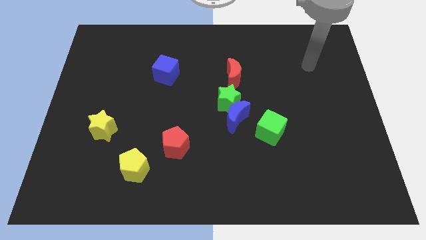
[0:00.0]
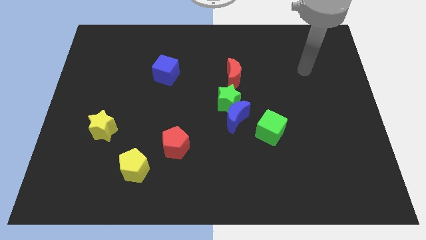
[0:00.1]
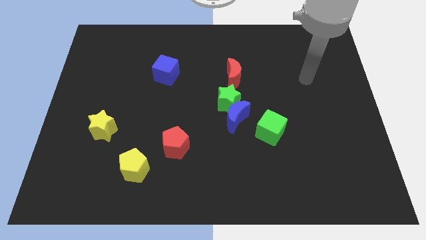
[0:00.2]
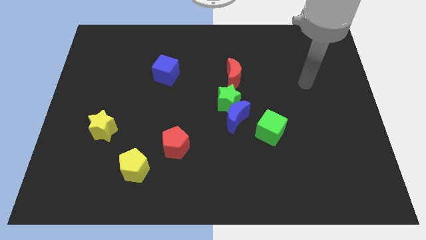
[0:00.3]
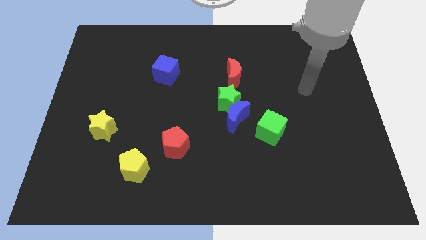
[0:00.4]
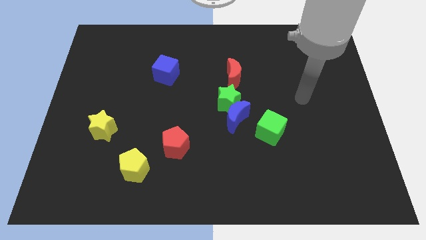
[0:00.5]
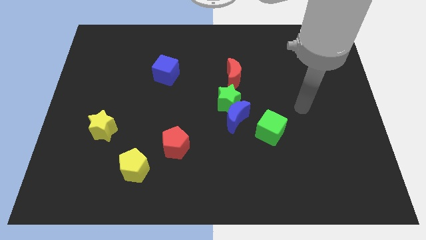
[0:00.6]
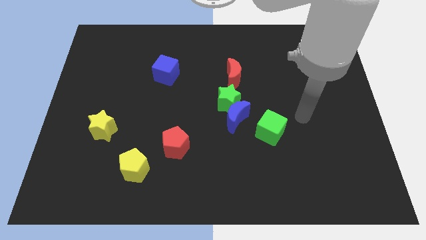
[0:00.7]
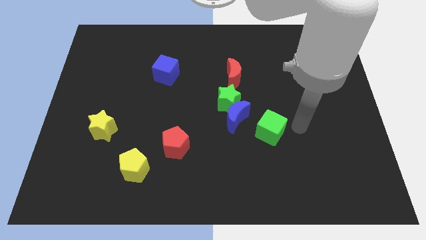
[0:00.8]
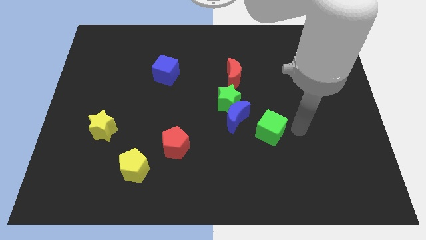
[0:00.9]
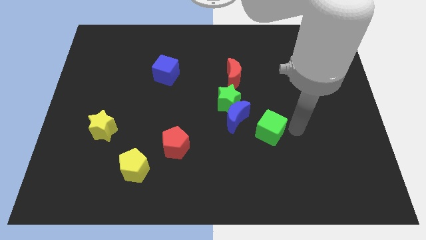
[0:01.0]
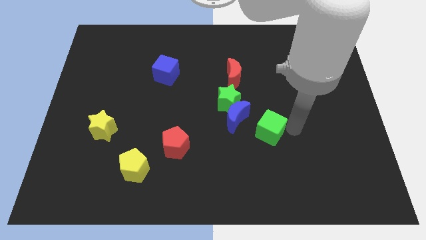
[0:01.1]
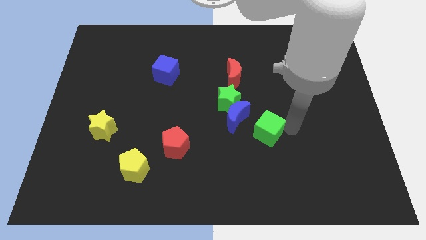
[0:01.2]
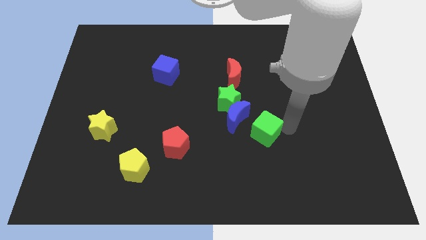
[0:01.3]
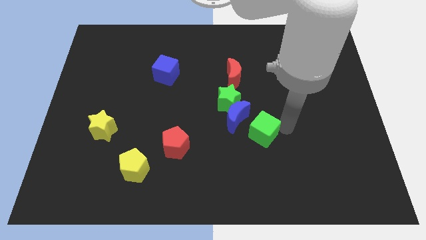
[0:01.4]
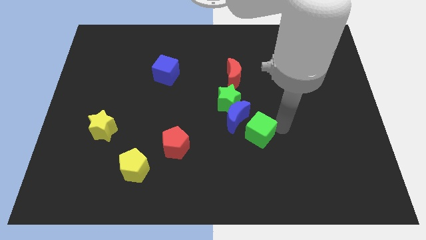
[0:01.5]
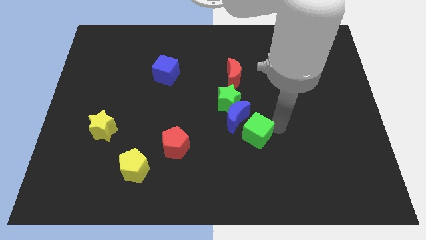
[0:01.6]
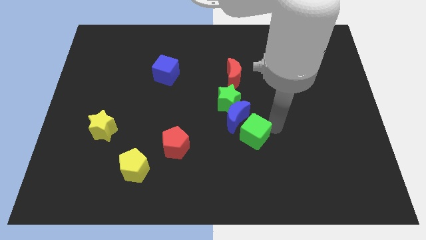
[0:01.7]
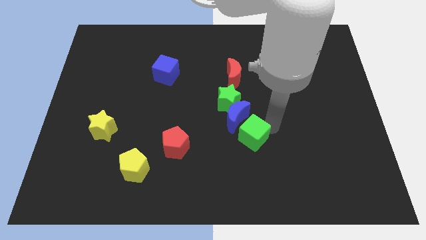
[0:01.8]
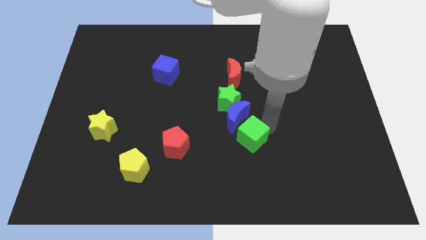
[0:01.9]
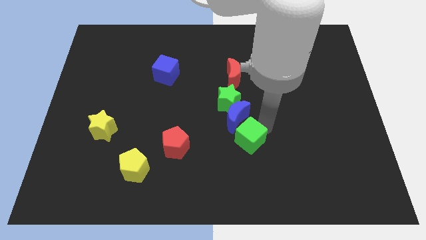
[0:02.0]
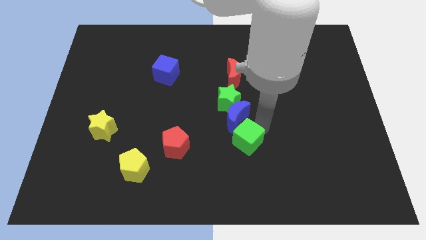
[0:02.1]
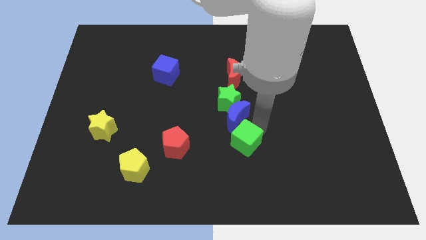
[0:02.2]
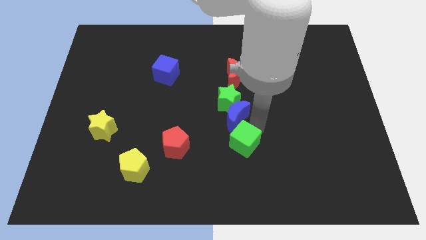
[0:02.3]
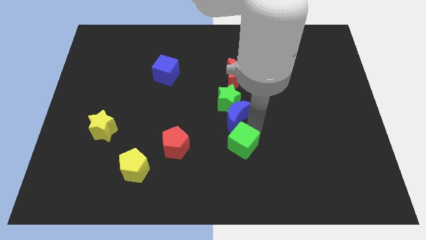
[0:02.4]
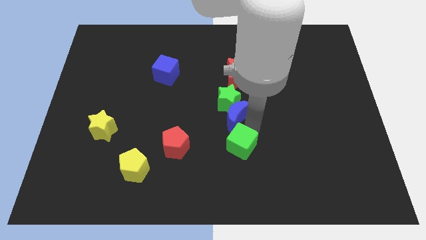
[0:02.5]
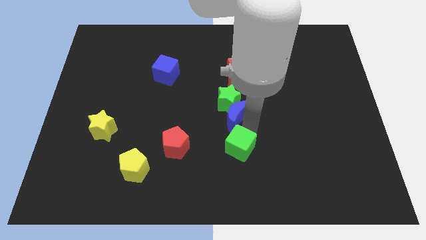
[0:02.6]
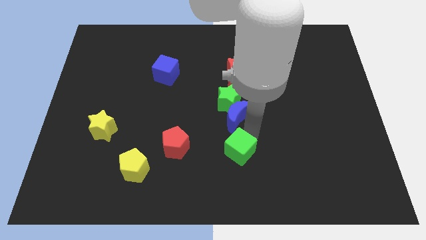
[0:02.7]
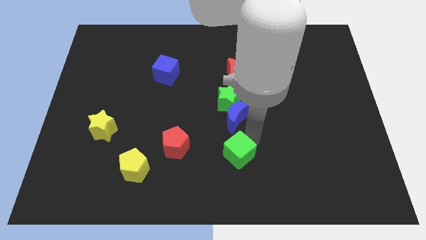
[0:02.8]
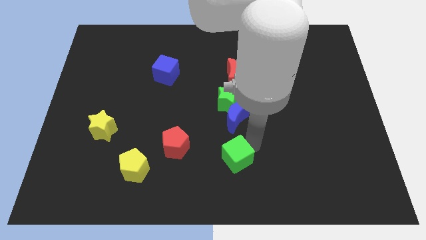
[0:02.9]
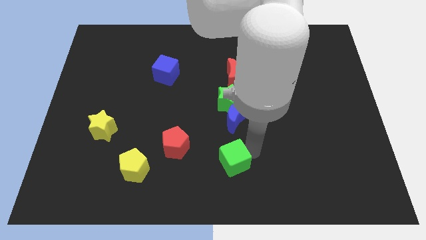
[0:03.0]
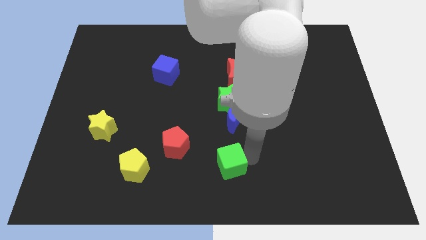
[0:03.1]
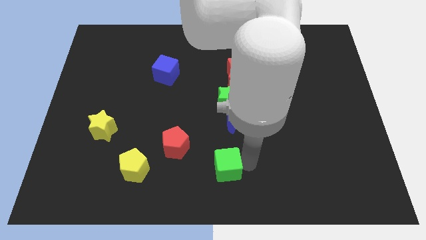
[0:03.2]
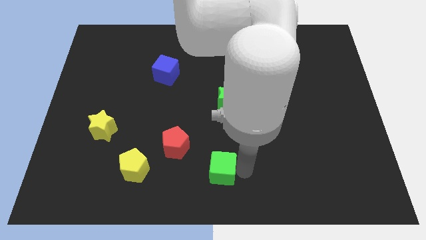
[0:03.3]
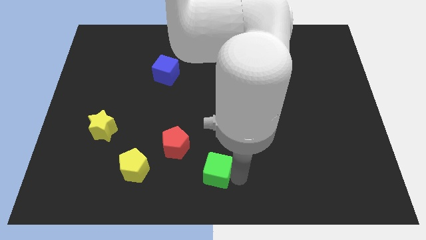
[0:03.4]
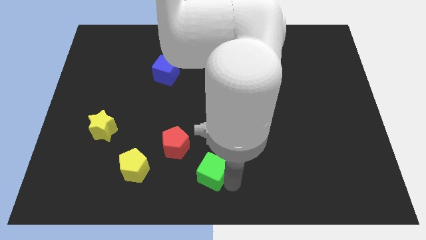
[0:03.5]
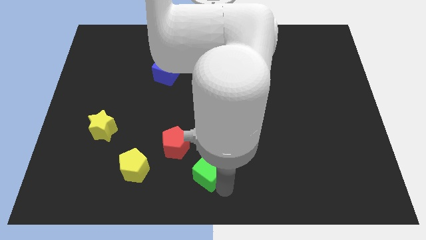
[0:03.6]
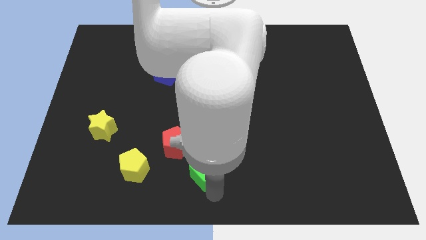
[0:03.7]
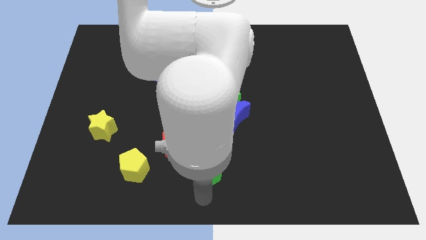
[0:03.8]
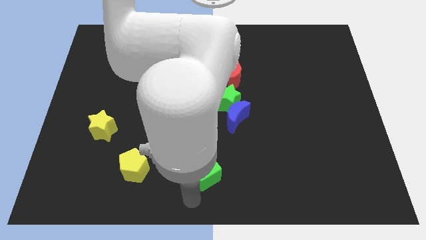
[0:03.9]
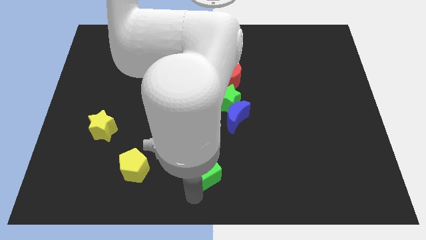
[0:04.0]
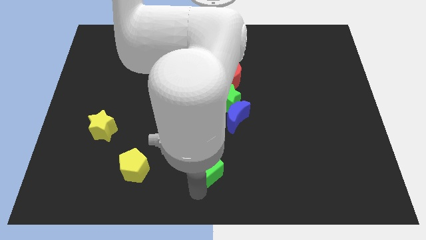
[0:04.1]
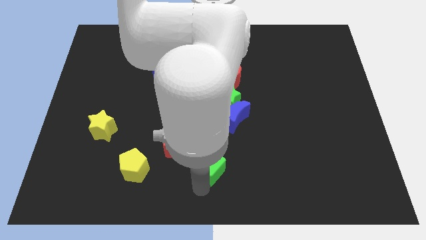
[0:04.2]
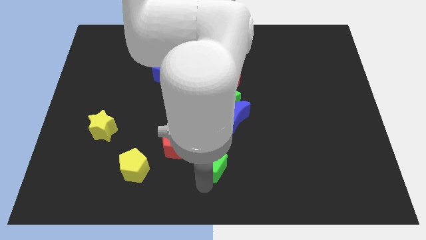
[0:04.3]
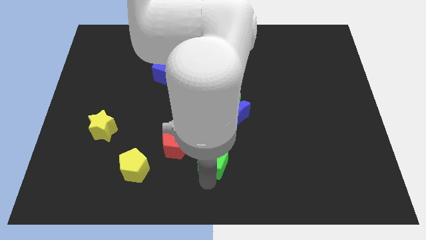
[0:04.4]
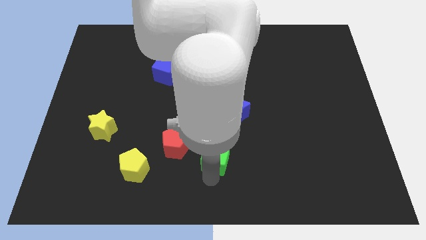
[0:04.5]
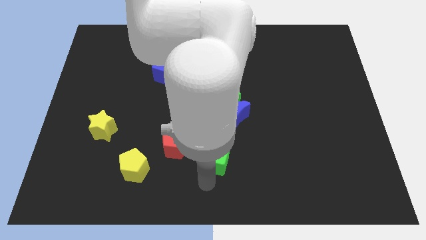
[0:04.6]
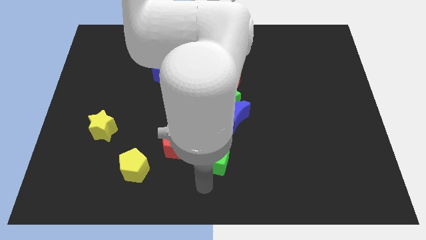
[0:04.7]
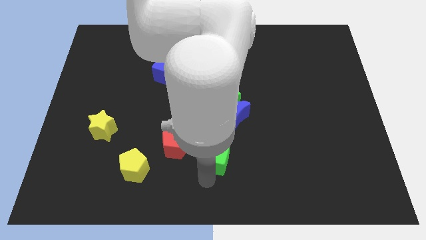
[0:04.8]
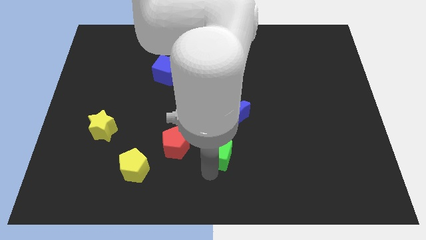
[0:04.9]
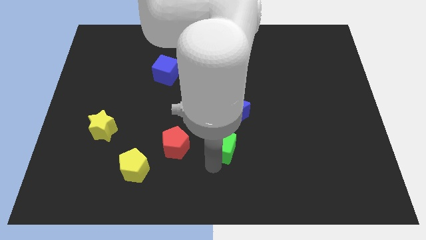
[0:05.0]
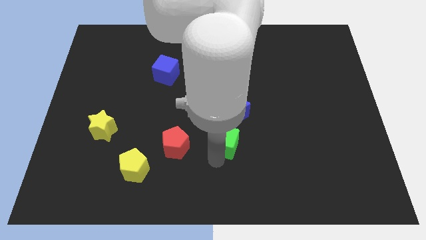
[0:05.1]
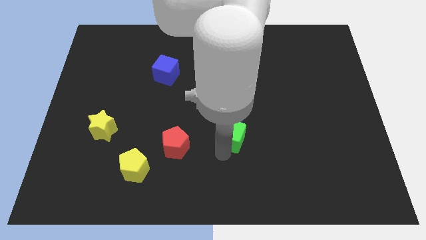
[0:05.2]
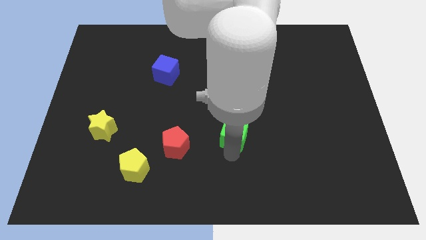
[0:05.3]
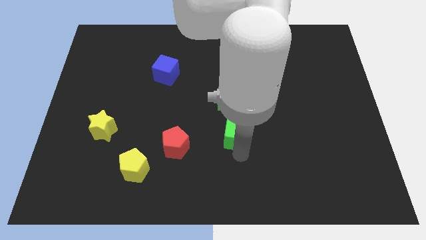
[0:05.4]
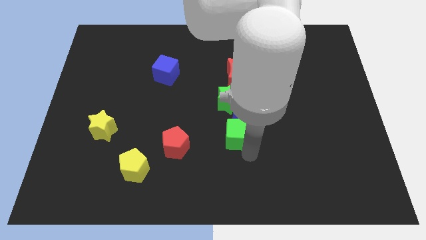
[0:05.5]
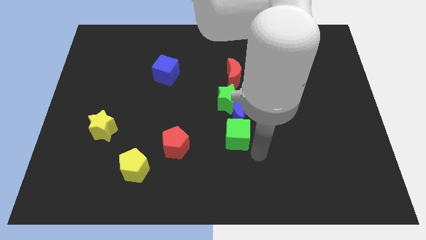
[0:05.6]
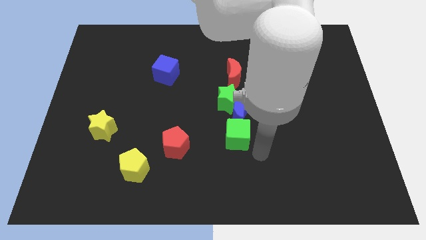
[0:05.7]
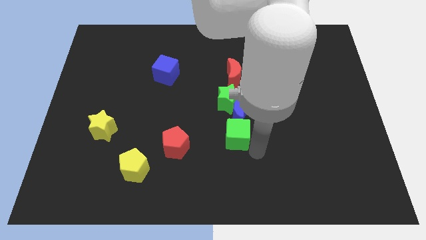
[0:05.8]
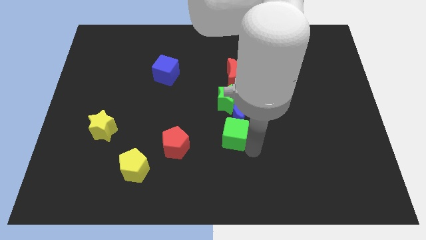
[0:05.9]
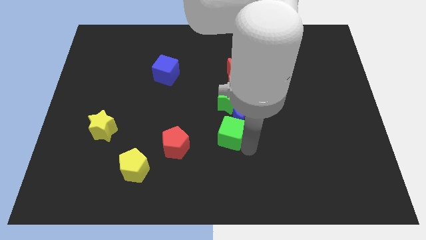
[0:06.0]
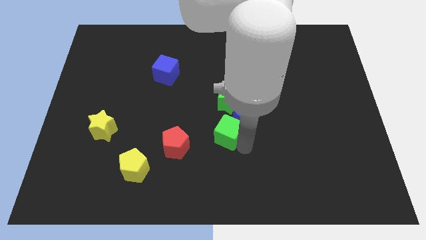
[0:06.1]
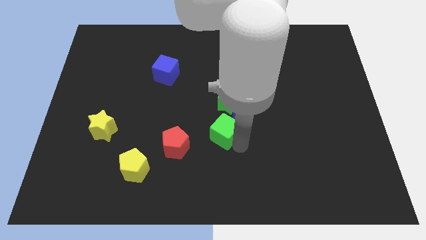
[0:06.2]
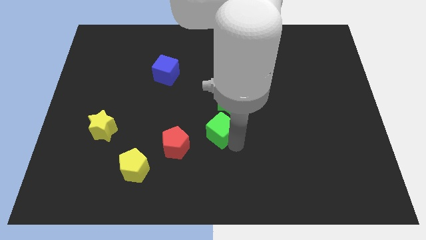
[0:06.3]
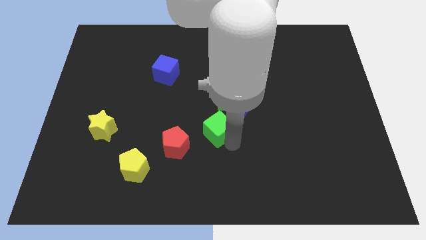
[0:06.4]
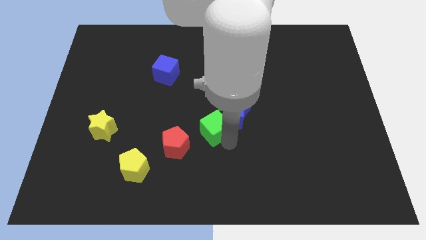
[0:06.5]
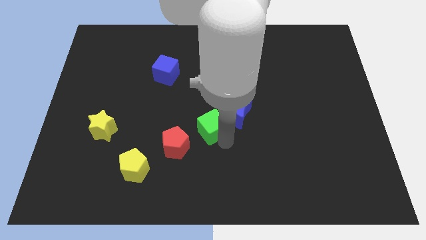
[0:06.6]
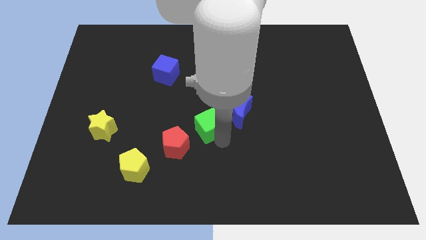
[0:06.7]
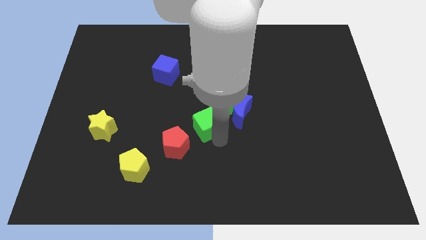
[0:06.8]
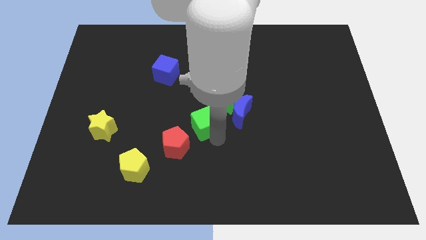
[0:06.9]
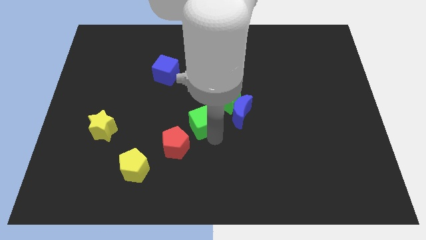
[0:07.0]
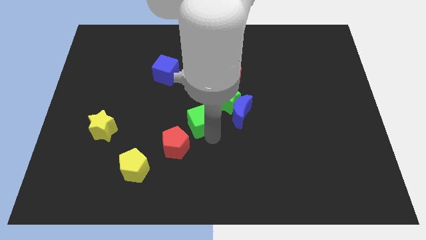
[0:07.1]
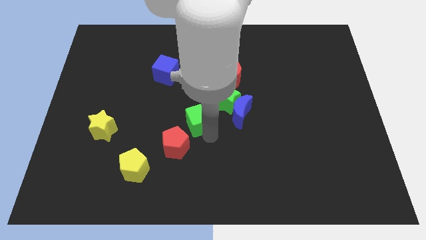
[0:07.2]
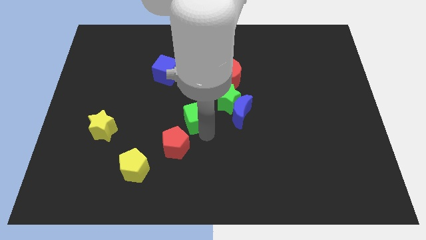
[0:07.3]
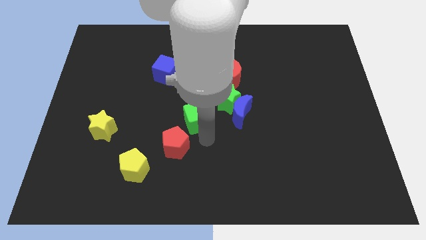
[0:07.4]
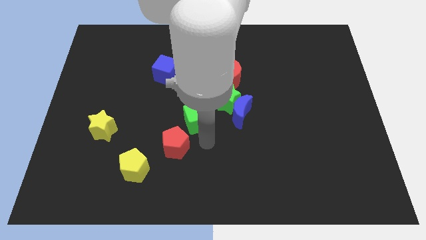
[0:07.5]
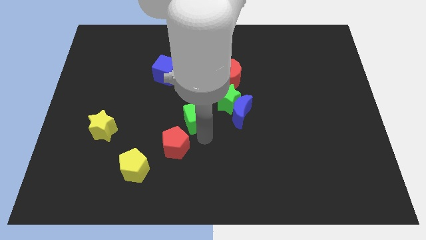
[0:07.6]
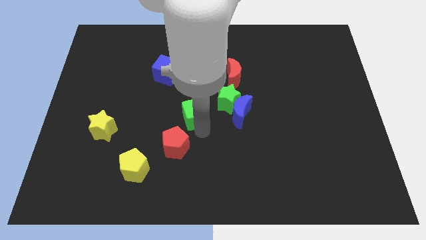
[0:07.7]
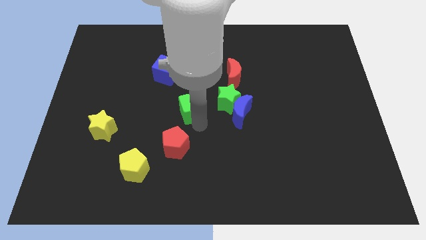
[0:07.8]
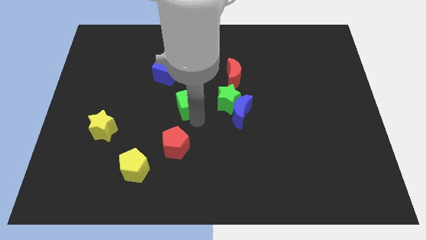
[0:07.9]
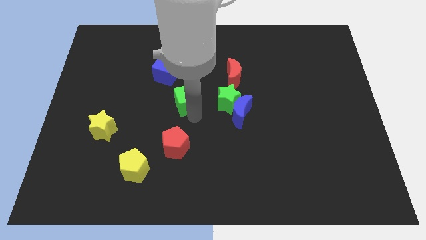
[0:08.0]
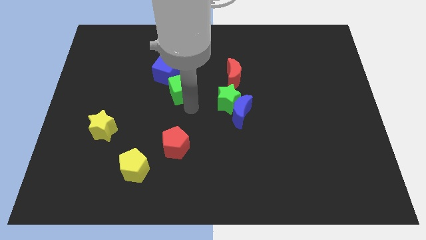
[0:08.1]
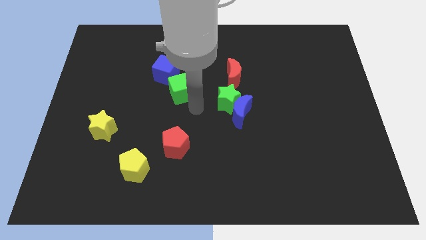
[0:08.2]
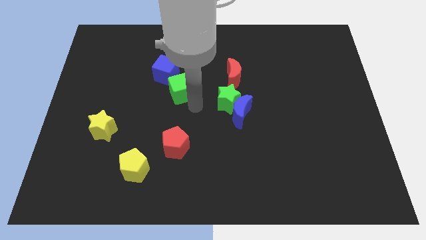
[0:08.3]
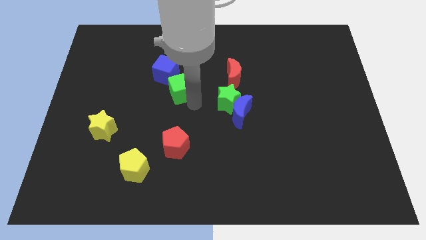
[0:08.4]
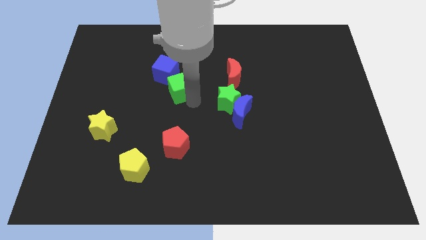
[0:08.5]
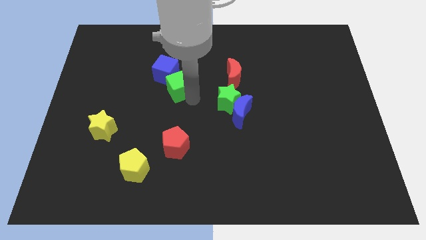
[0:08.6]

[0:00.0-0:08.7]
move the green cube to the blue cube
